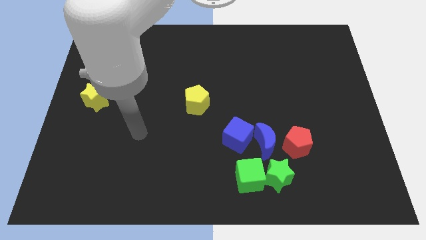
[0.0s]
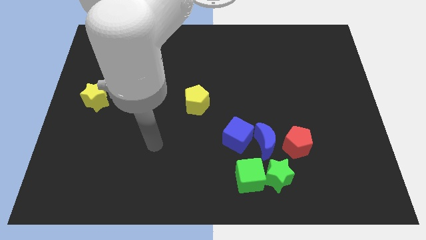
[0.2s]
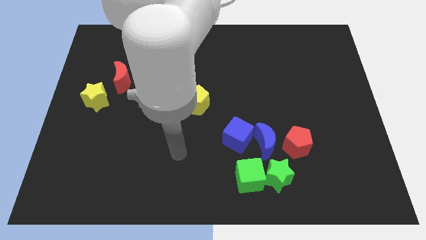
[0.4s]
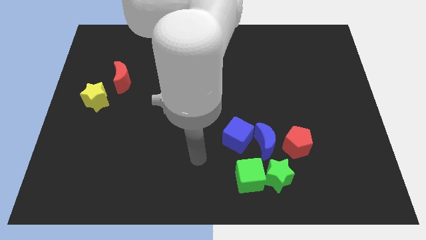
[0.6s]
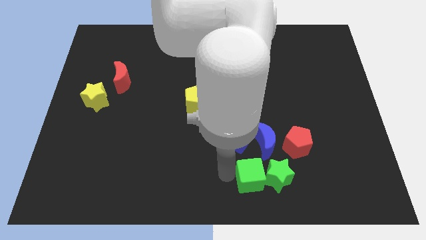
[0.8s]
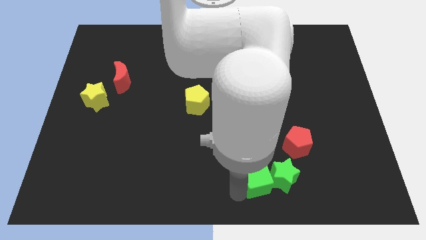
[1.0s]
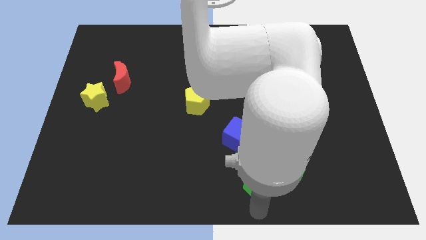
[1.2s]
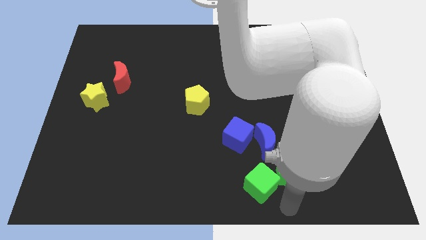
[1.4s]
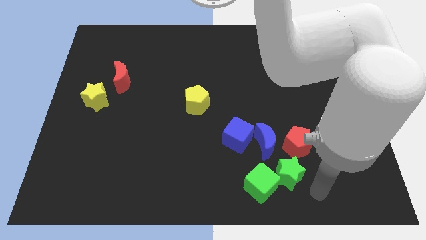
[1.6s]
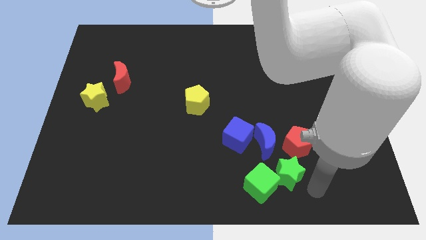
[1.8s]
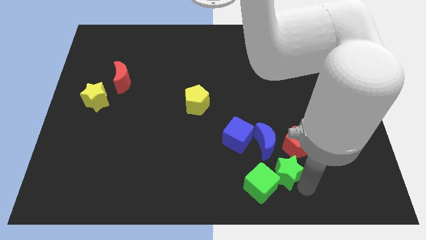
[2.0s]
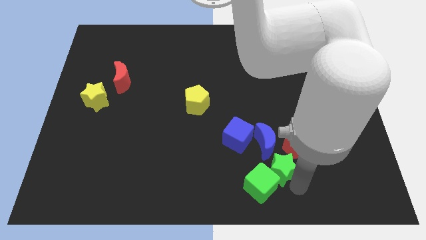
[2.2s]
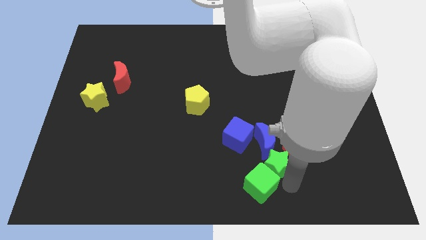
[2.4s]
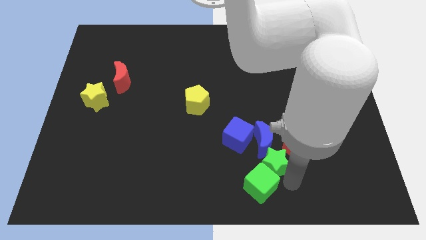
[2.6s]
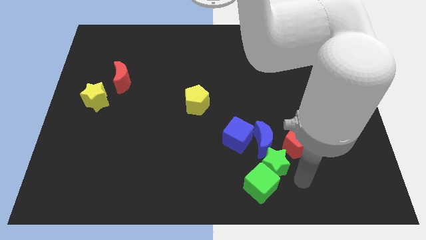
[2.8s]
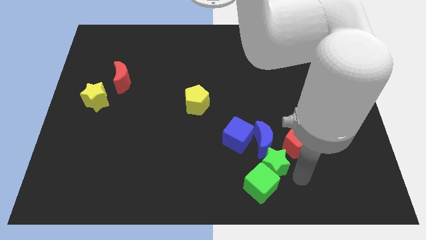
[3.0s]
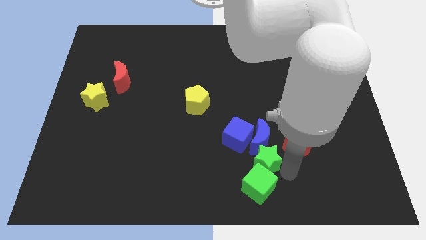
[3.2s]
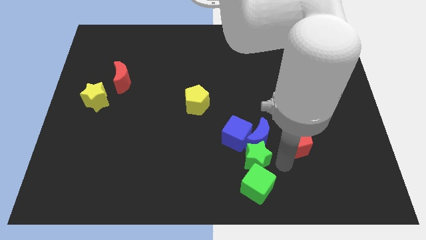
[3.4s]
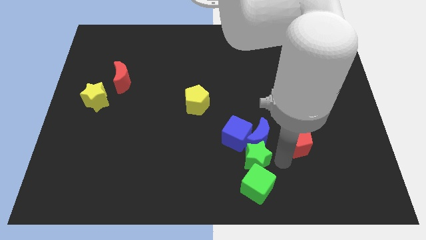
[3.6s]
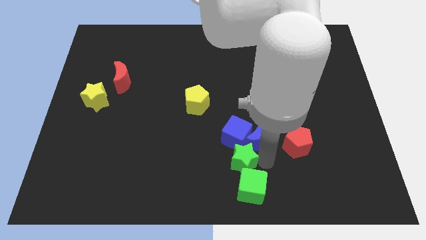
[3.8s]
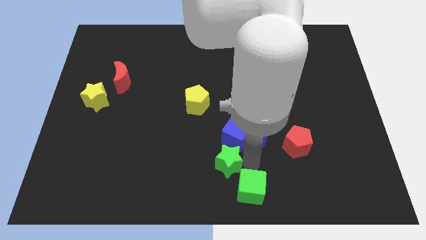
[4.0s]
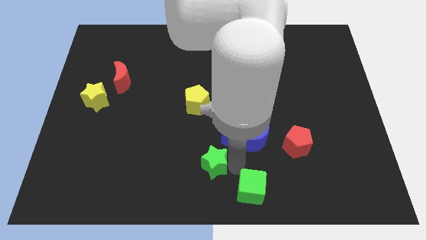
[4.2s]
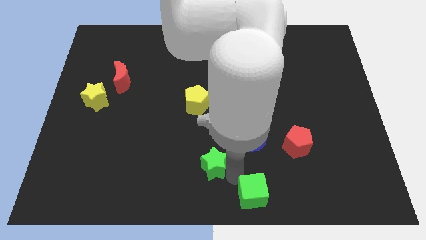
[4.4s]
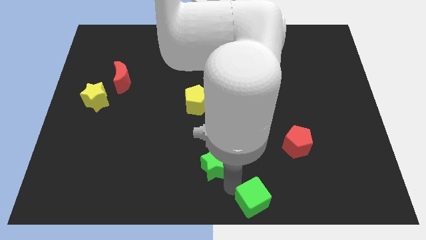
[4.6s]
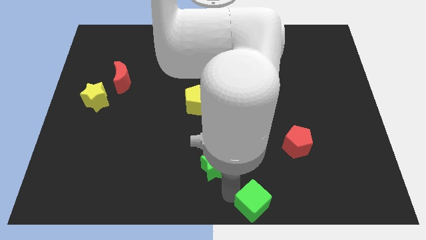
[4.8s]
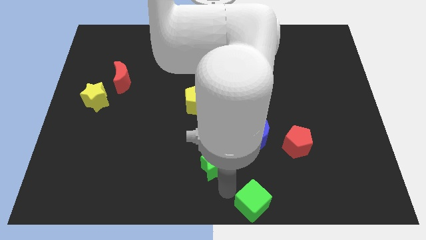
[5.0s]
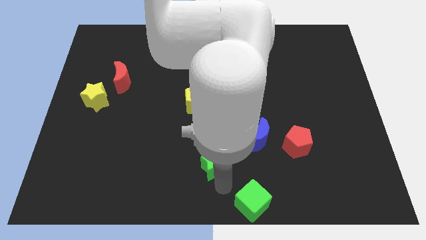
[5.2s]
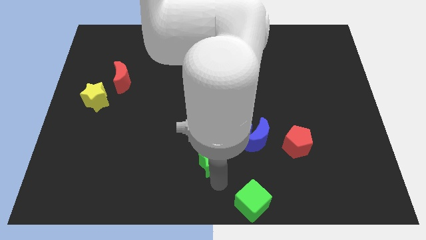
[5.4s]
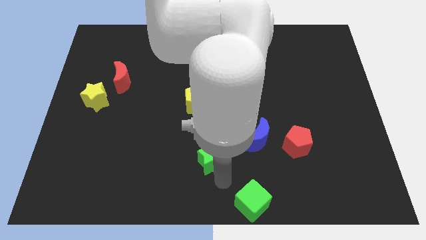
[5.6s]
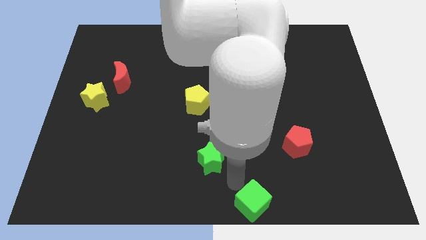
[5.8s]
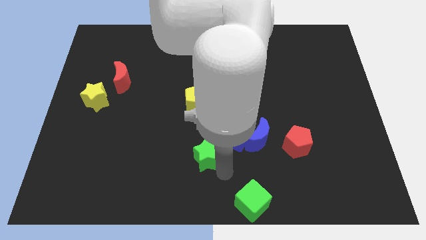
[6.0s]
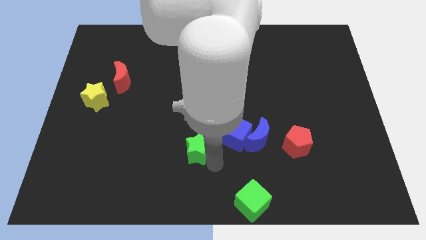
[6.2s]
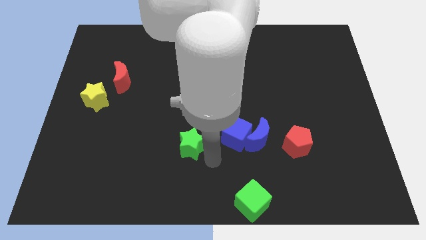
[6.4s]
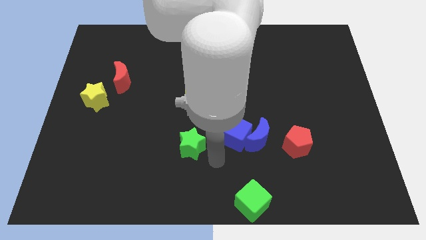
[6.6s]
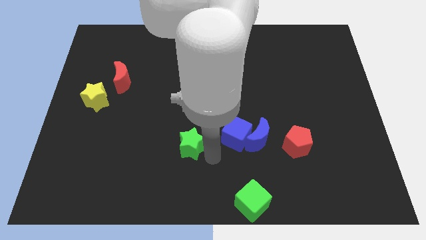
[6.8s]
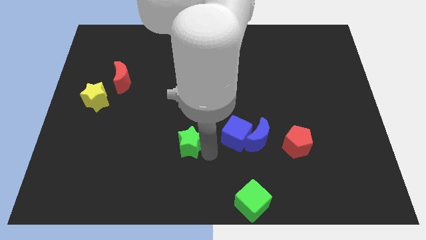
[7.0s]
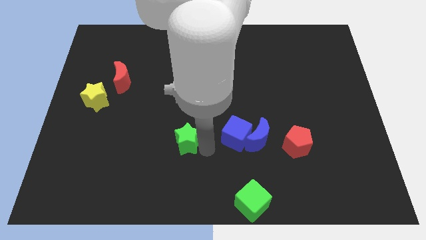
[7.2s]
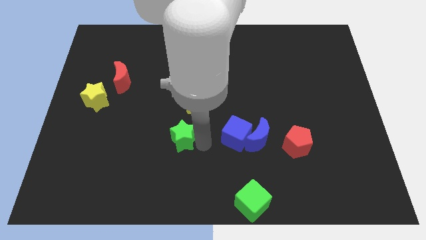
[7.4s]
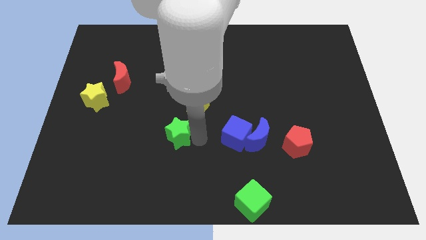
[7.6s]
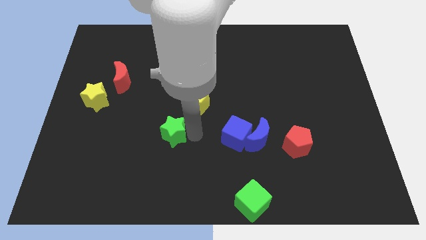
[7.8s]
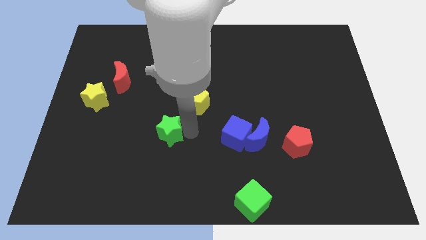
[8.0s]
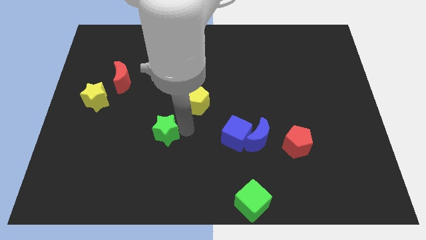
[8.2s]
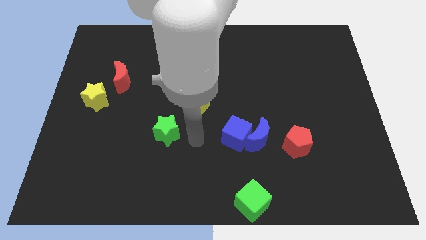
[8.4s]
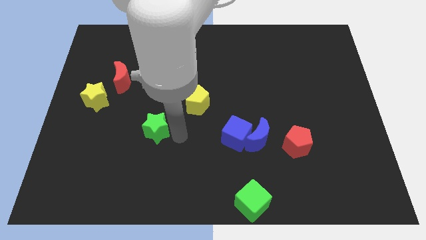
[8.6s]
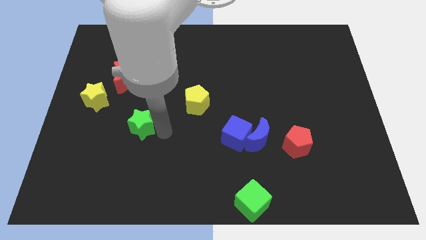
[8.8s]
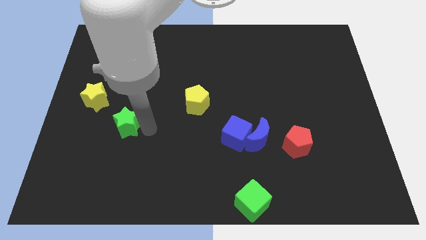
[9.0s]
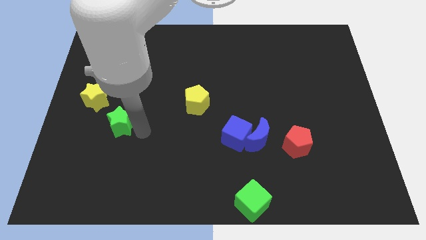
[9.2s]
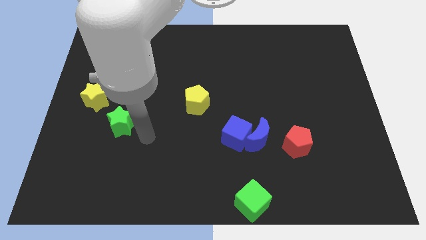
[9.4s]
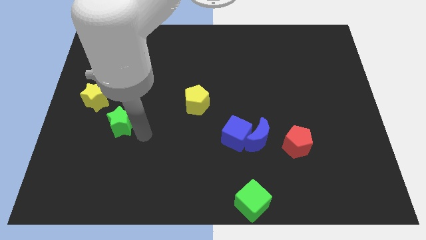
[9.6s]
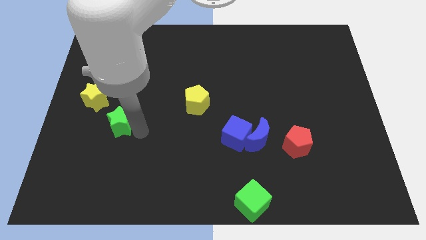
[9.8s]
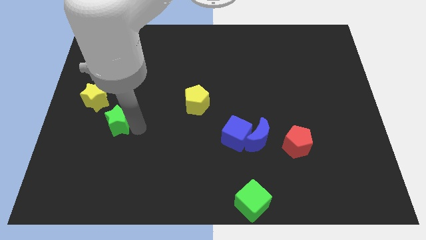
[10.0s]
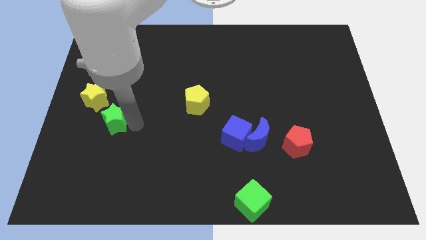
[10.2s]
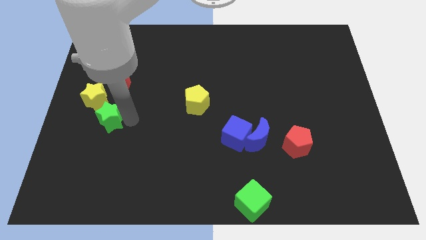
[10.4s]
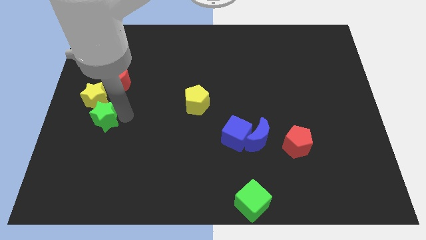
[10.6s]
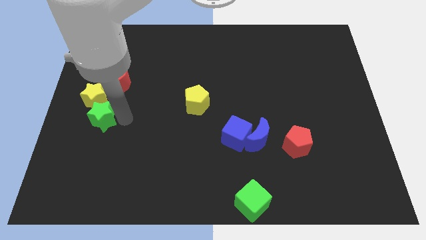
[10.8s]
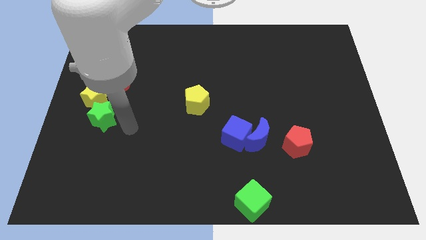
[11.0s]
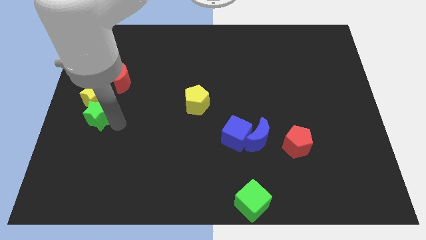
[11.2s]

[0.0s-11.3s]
move the green star to the left side

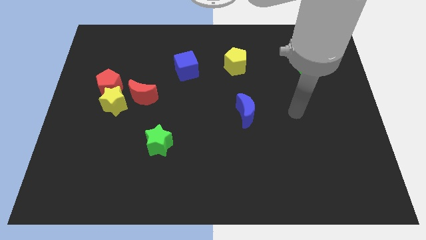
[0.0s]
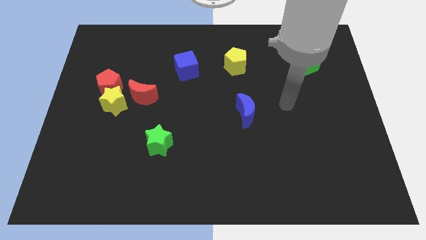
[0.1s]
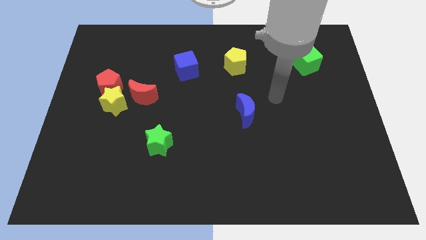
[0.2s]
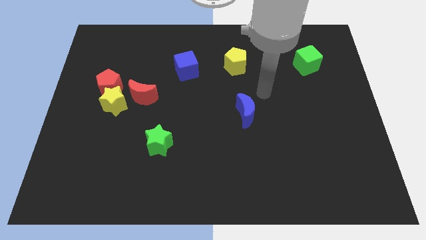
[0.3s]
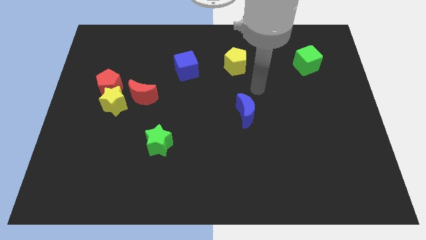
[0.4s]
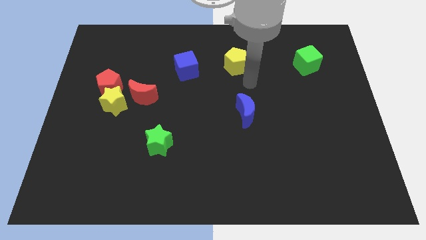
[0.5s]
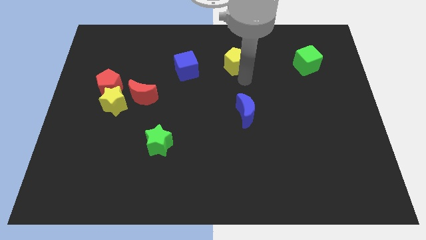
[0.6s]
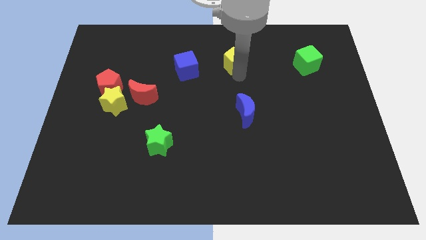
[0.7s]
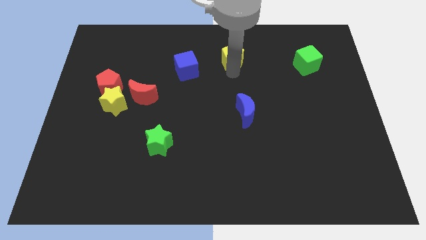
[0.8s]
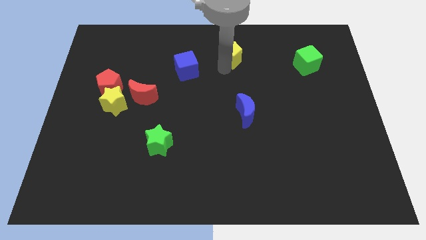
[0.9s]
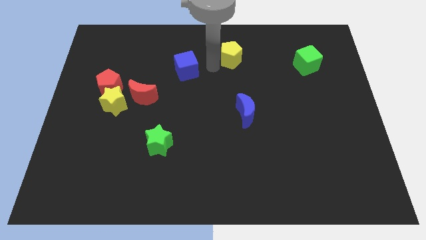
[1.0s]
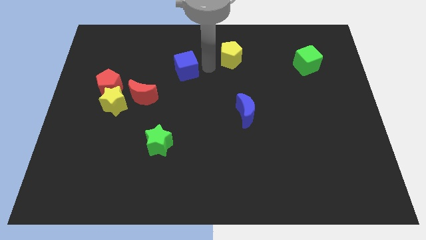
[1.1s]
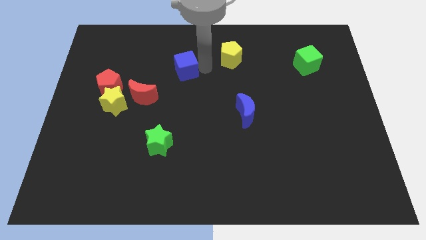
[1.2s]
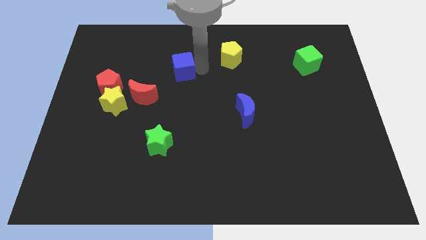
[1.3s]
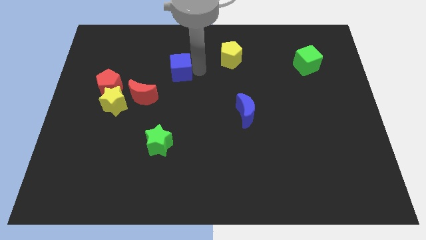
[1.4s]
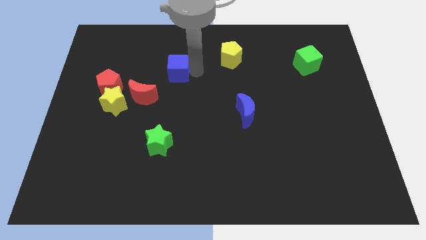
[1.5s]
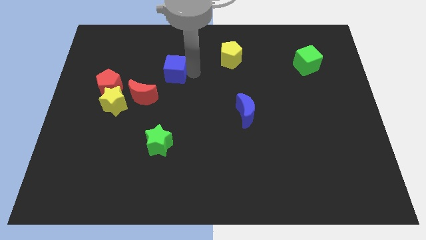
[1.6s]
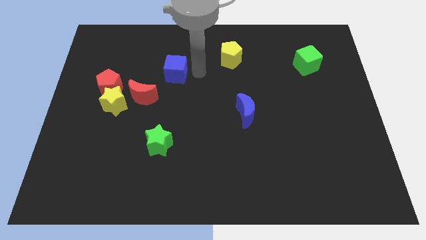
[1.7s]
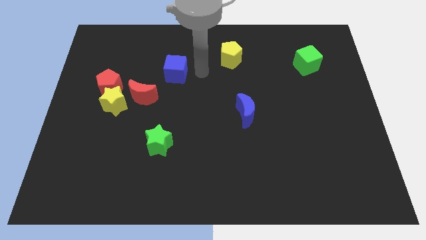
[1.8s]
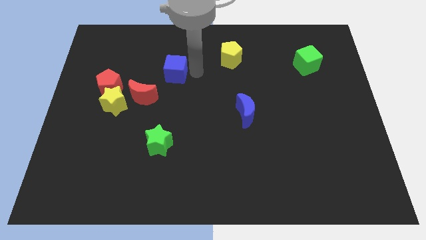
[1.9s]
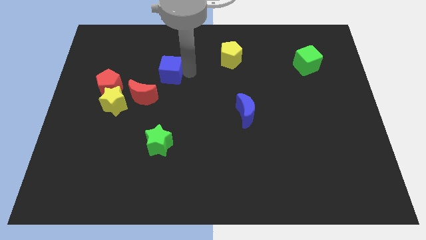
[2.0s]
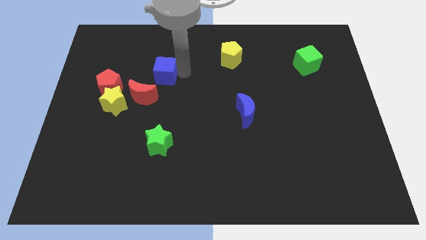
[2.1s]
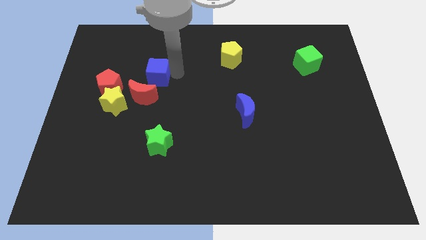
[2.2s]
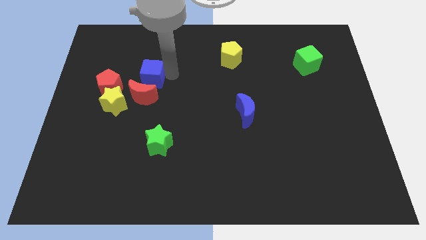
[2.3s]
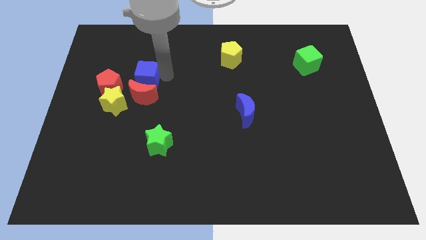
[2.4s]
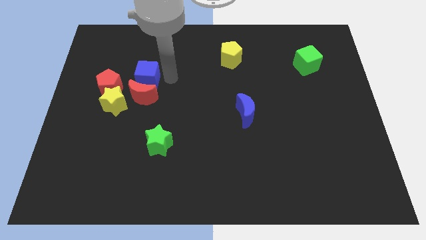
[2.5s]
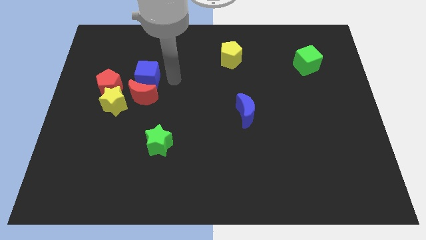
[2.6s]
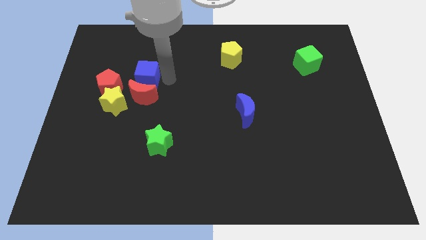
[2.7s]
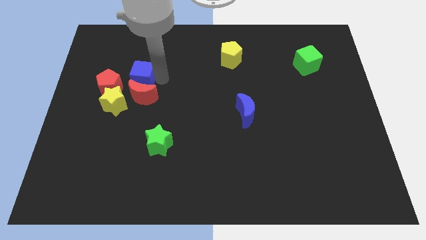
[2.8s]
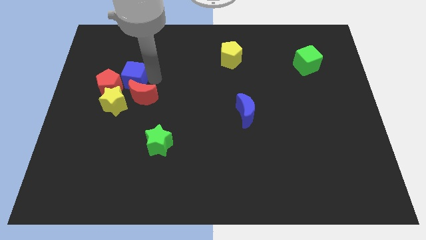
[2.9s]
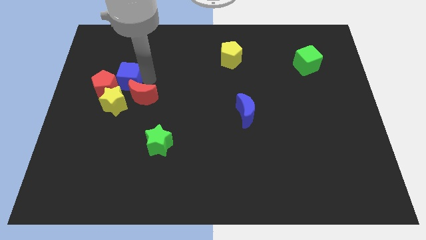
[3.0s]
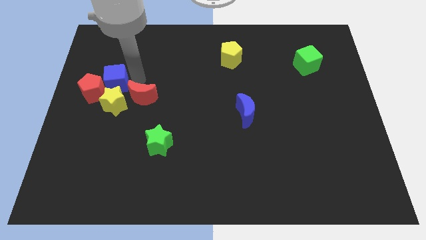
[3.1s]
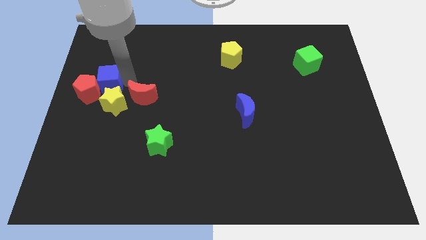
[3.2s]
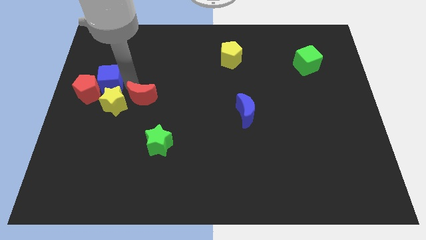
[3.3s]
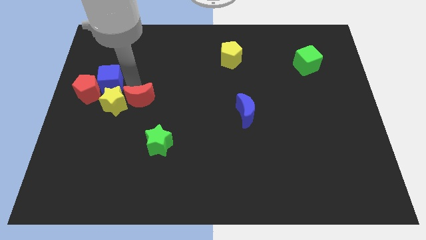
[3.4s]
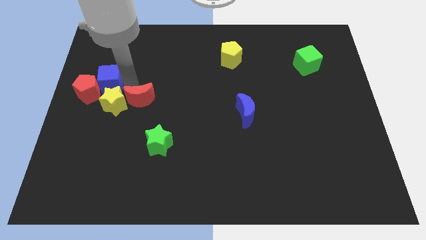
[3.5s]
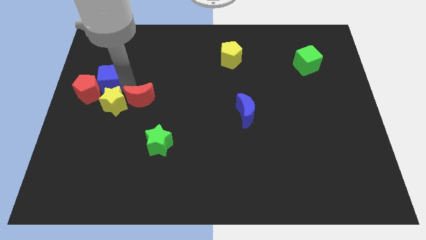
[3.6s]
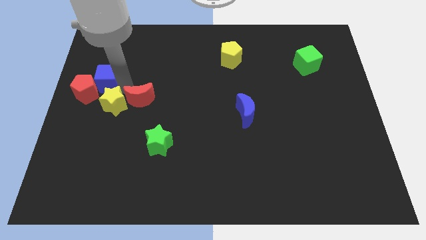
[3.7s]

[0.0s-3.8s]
put the blue cube to the center left
